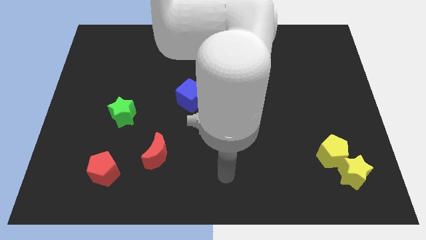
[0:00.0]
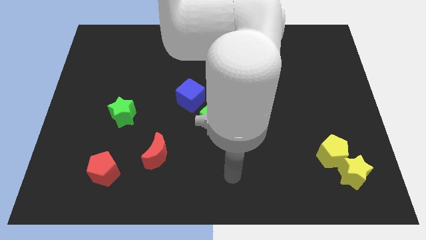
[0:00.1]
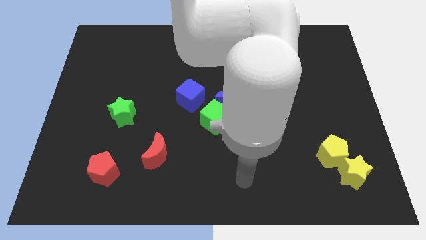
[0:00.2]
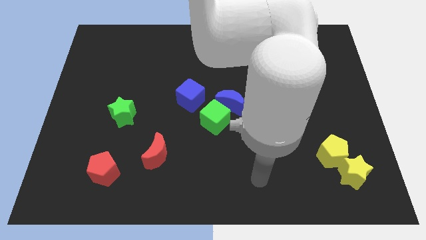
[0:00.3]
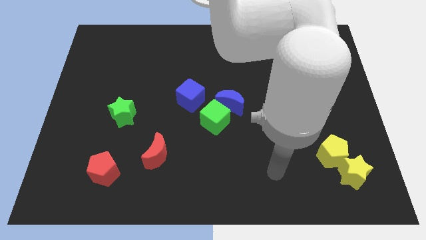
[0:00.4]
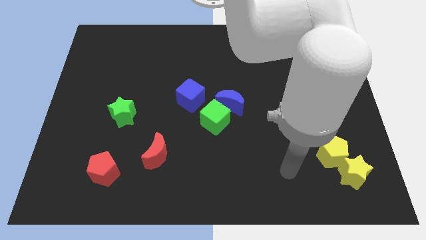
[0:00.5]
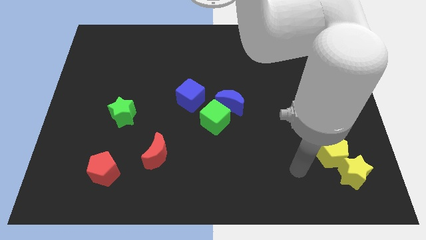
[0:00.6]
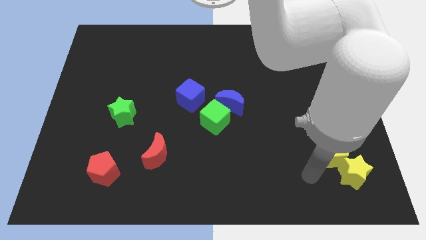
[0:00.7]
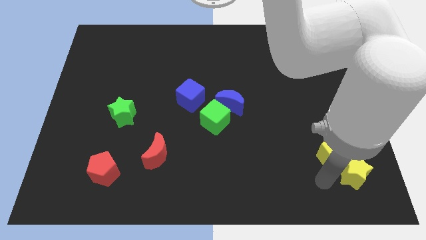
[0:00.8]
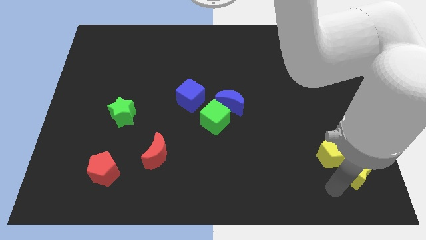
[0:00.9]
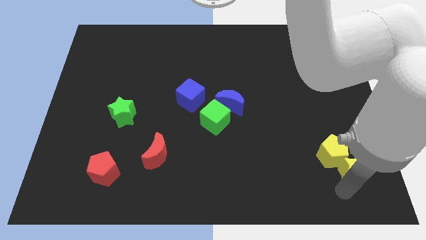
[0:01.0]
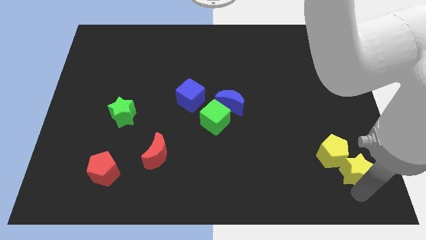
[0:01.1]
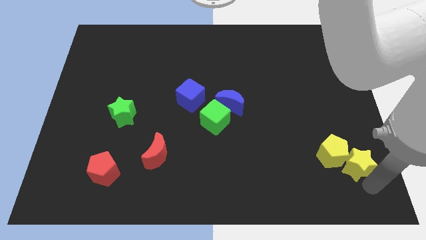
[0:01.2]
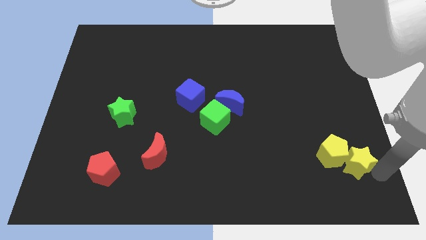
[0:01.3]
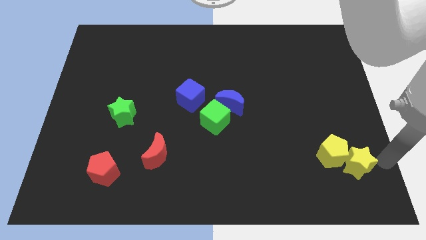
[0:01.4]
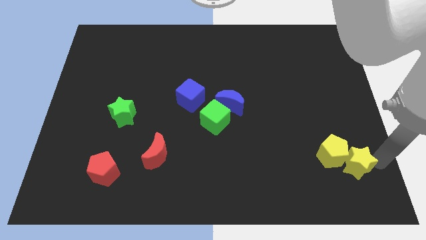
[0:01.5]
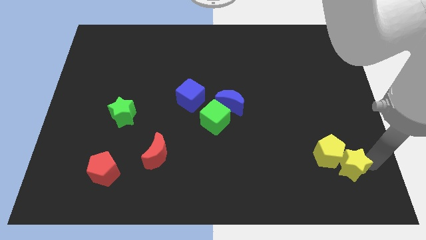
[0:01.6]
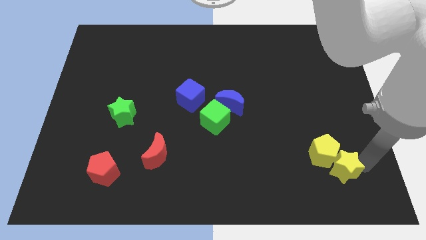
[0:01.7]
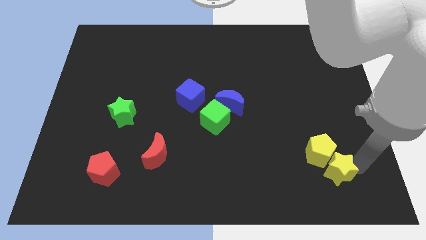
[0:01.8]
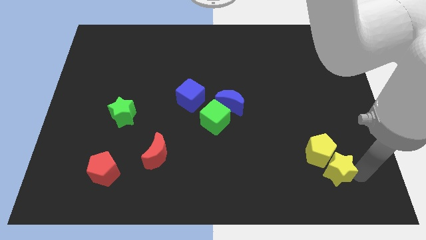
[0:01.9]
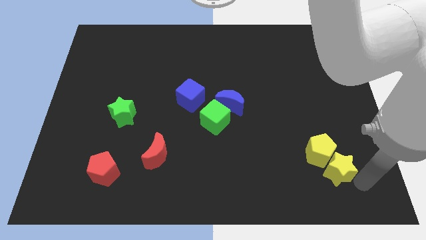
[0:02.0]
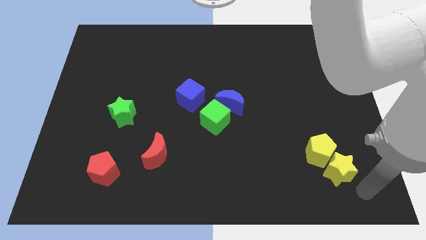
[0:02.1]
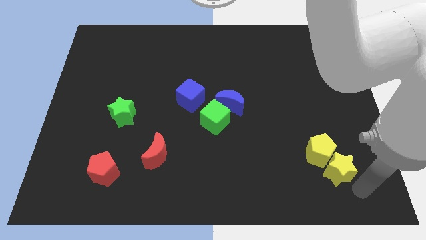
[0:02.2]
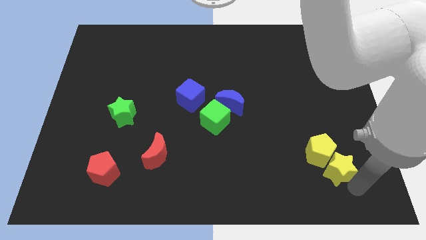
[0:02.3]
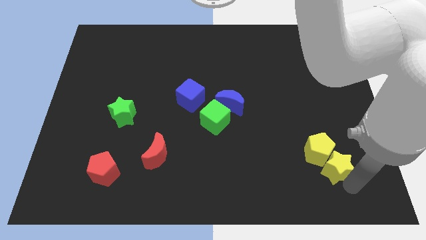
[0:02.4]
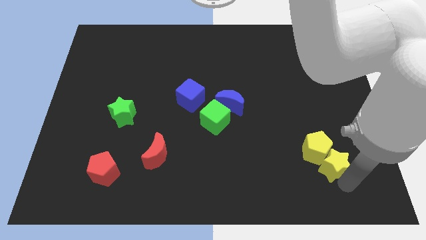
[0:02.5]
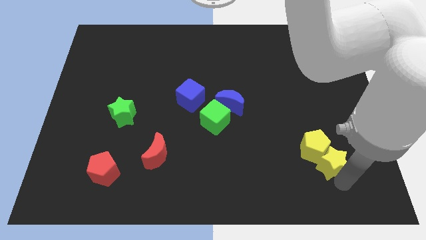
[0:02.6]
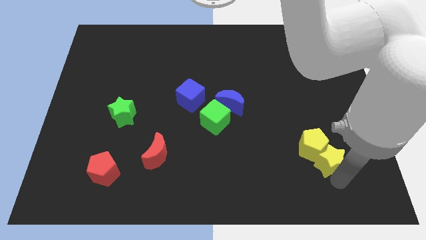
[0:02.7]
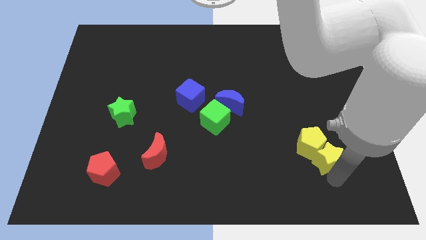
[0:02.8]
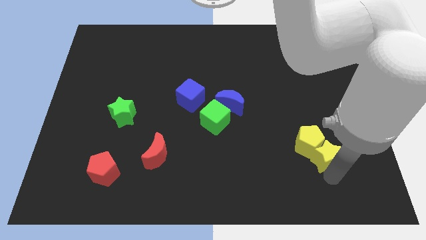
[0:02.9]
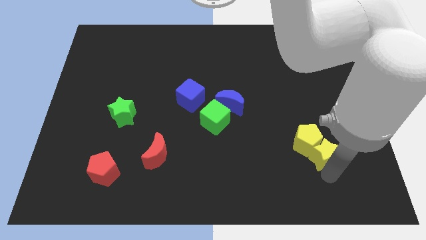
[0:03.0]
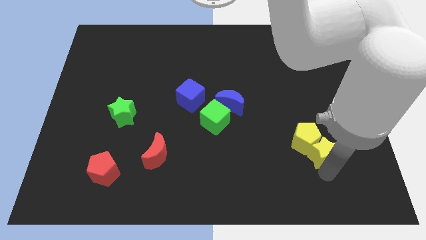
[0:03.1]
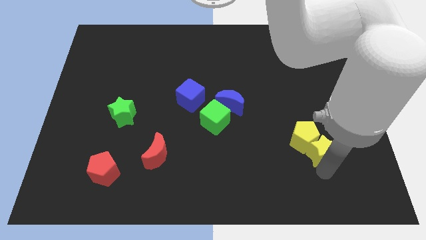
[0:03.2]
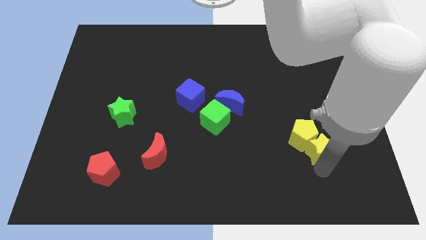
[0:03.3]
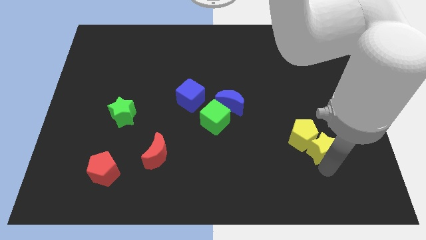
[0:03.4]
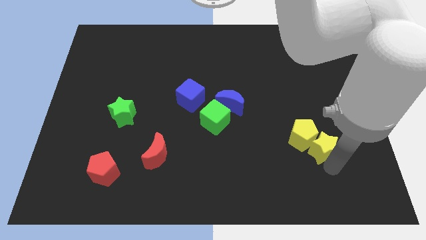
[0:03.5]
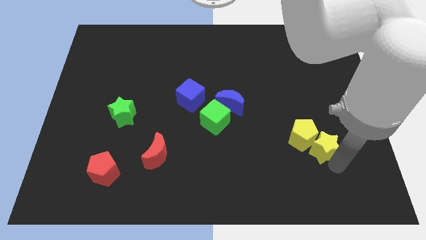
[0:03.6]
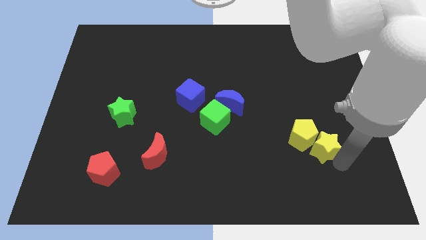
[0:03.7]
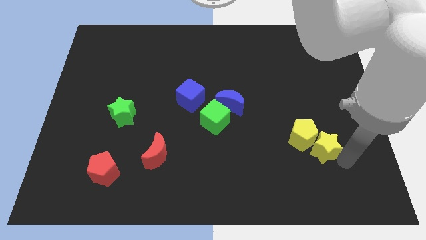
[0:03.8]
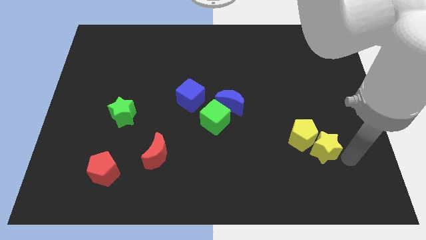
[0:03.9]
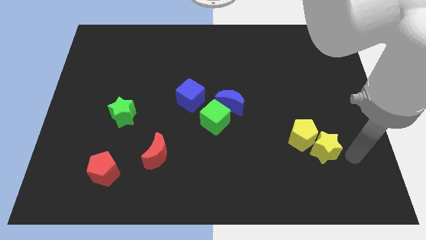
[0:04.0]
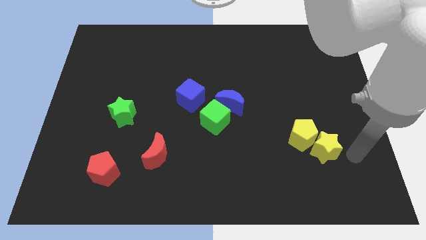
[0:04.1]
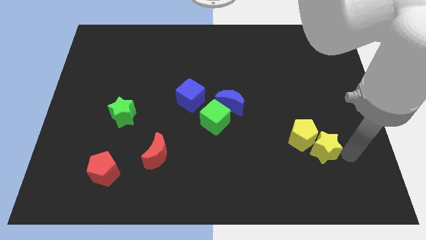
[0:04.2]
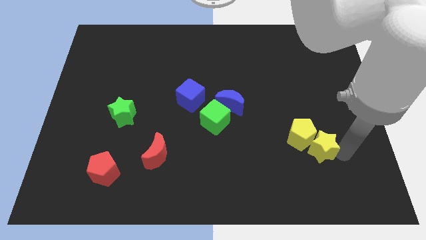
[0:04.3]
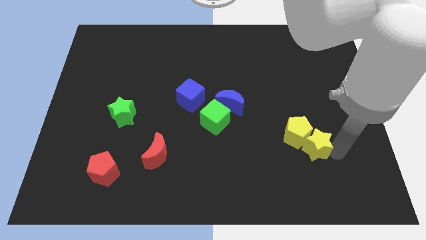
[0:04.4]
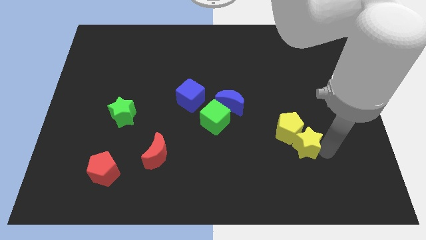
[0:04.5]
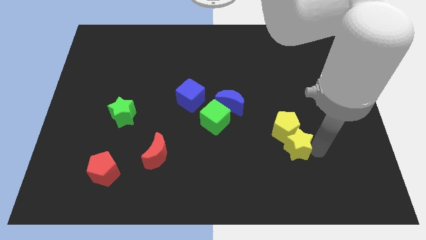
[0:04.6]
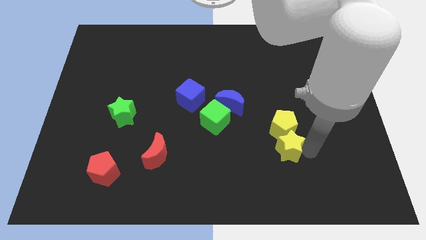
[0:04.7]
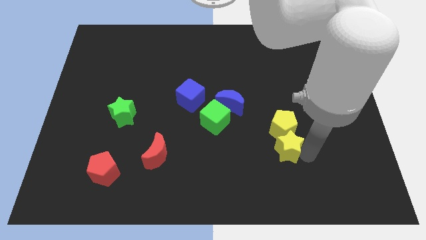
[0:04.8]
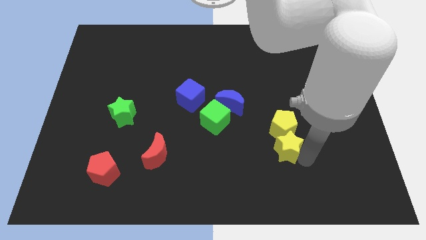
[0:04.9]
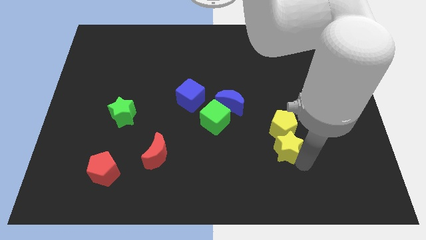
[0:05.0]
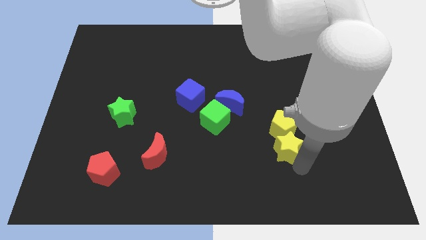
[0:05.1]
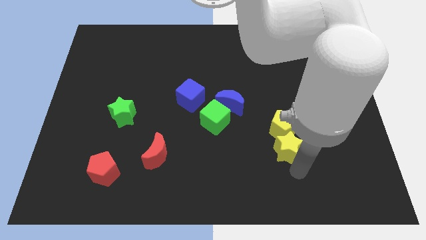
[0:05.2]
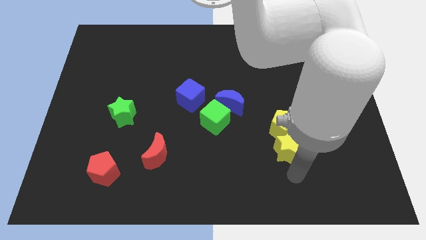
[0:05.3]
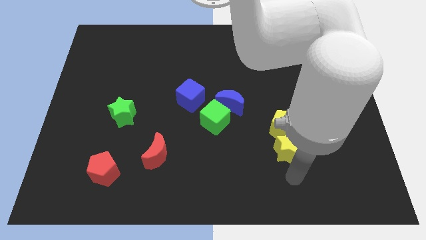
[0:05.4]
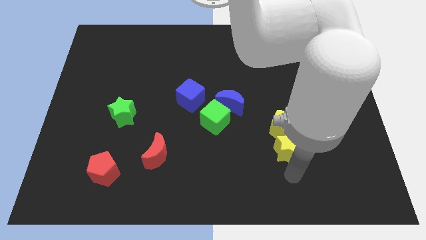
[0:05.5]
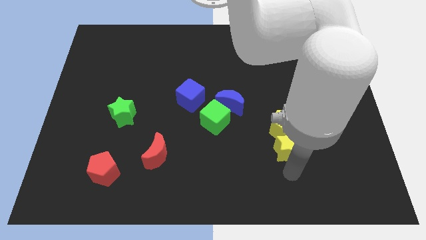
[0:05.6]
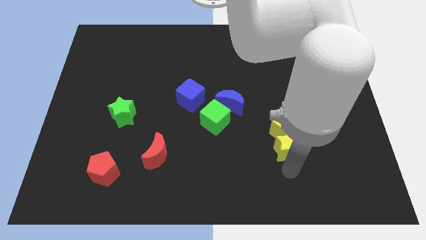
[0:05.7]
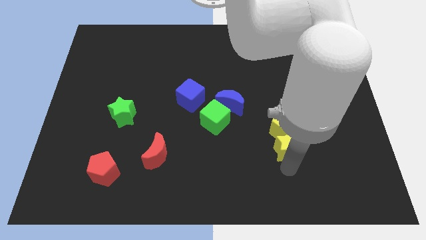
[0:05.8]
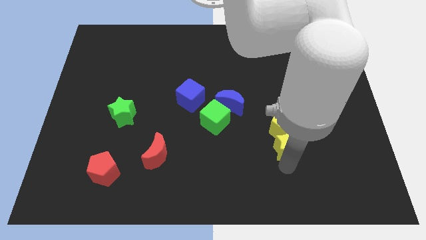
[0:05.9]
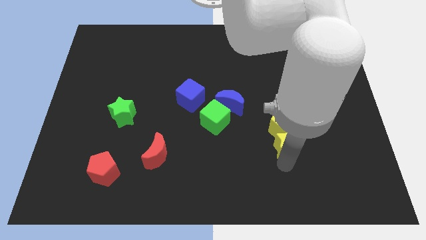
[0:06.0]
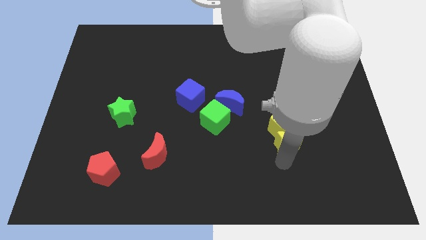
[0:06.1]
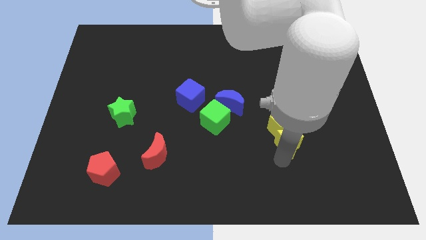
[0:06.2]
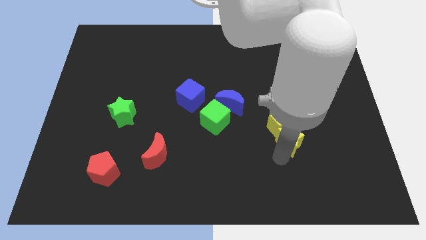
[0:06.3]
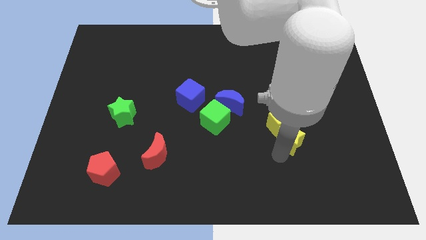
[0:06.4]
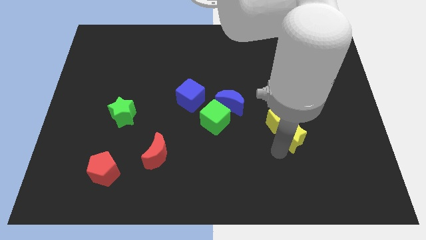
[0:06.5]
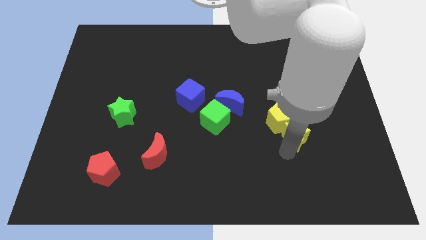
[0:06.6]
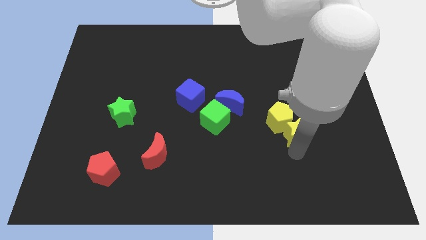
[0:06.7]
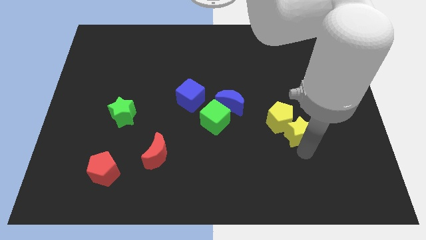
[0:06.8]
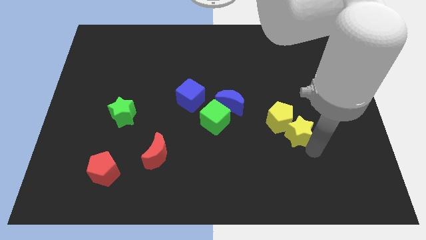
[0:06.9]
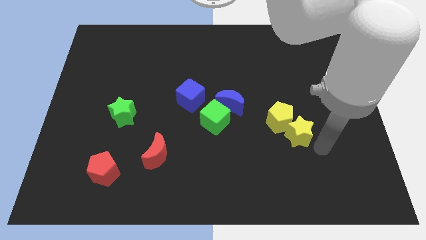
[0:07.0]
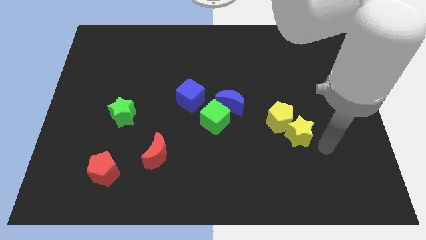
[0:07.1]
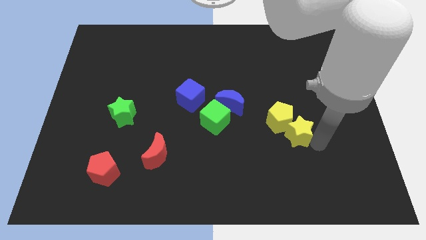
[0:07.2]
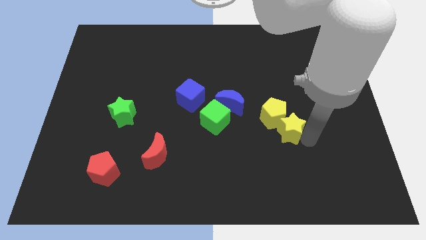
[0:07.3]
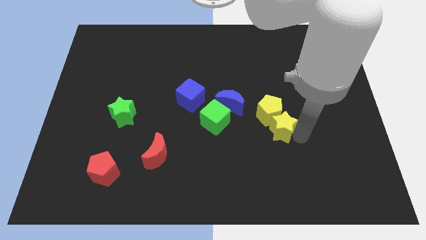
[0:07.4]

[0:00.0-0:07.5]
push the yellow star right of the green cube
